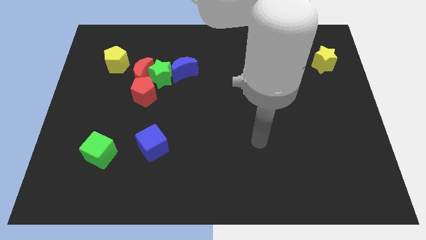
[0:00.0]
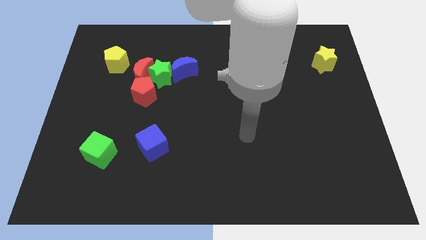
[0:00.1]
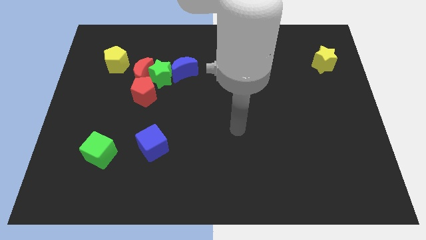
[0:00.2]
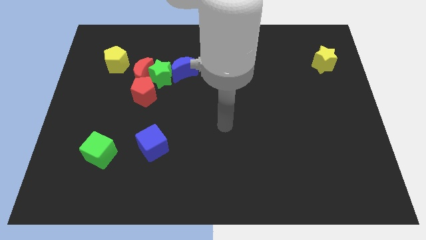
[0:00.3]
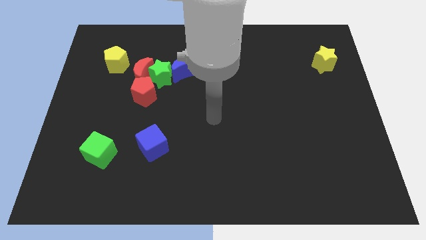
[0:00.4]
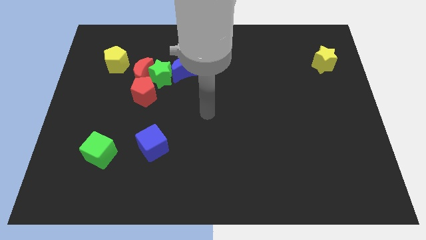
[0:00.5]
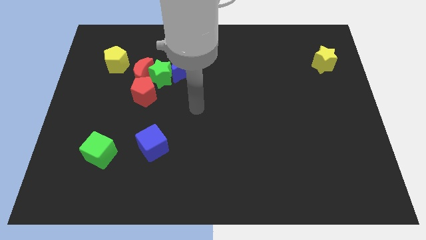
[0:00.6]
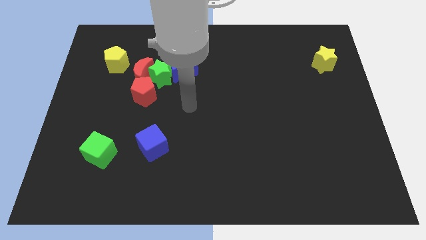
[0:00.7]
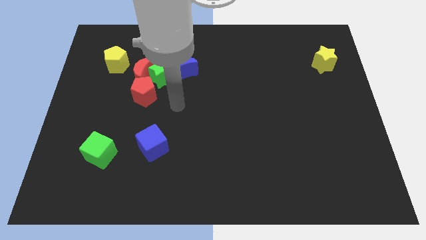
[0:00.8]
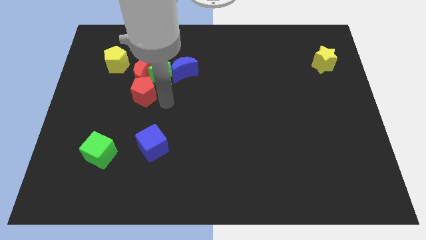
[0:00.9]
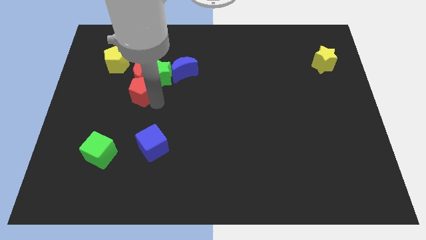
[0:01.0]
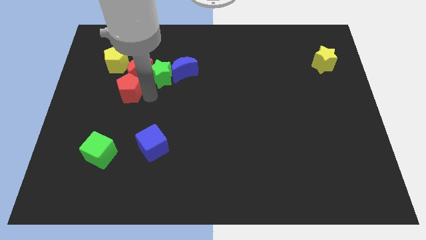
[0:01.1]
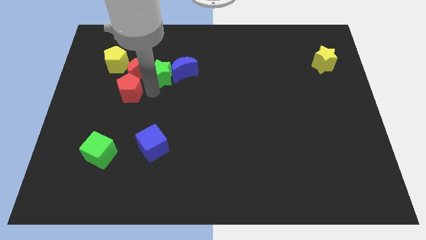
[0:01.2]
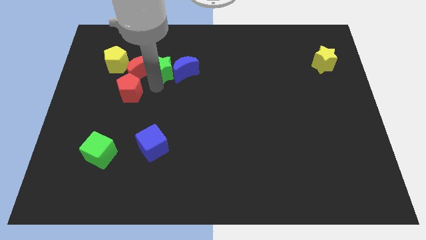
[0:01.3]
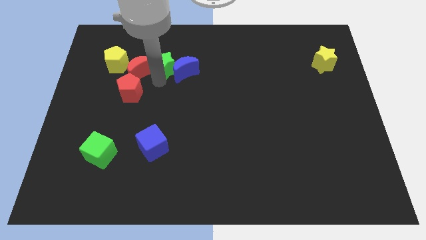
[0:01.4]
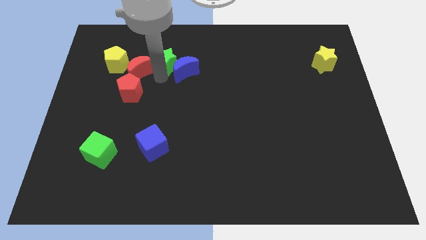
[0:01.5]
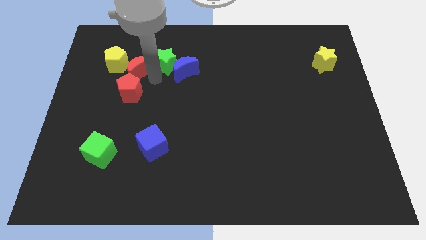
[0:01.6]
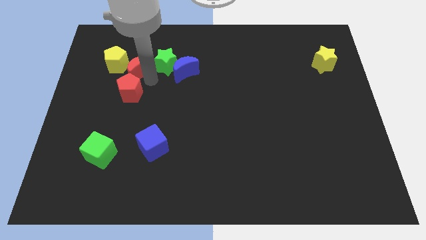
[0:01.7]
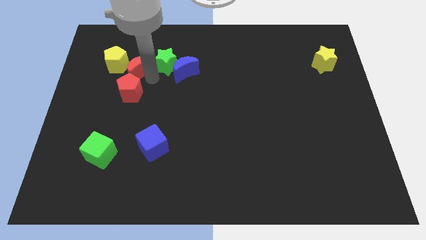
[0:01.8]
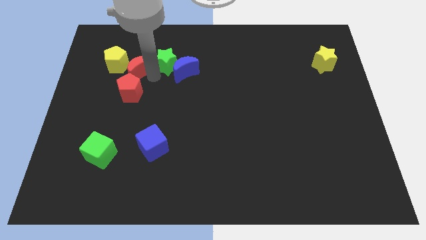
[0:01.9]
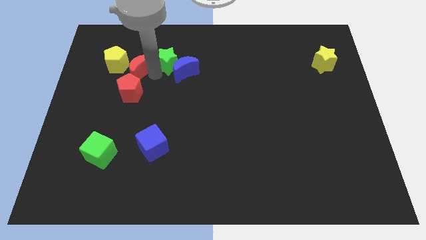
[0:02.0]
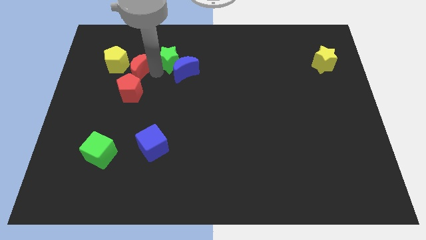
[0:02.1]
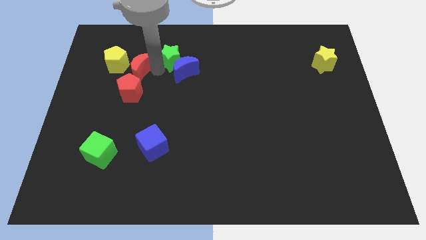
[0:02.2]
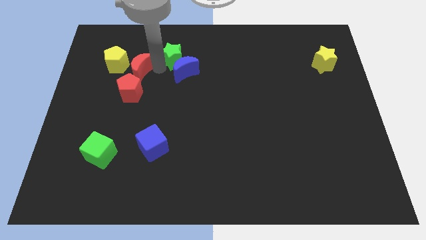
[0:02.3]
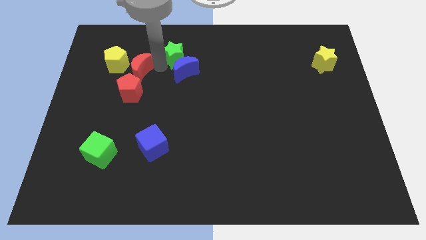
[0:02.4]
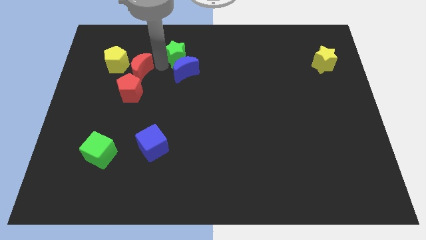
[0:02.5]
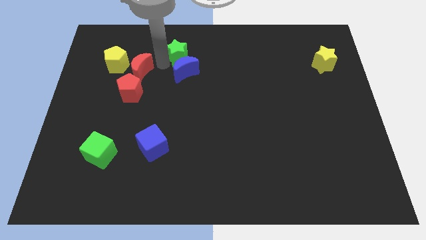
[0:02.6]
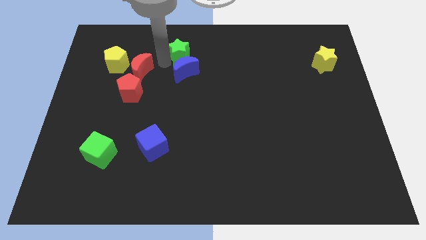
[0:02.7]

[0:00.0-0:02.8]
move the green star away from the group

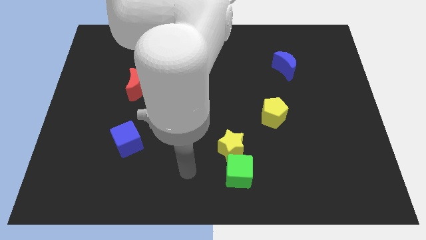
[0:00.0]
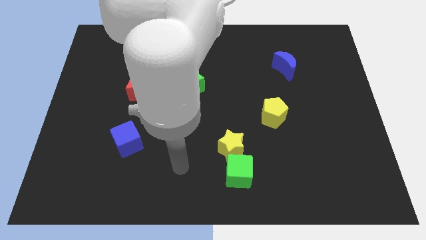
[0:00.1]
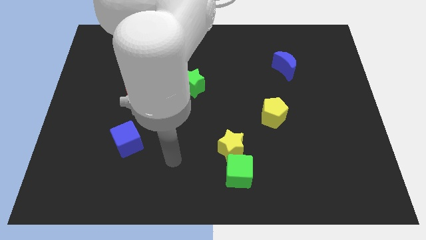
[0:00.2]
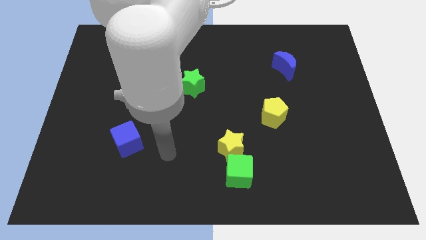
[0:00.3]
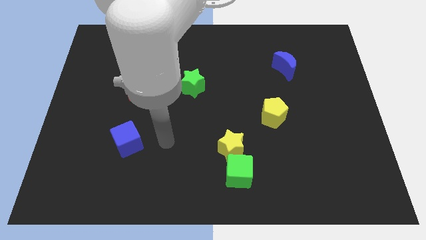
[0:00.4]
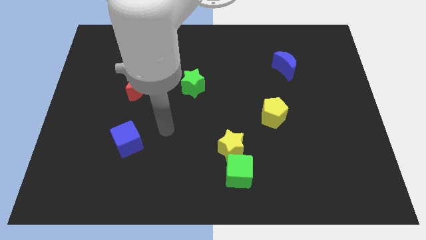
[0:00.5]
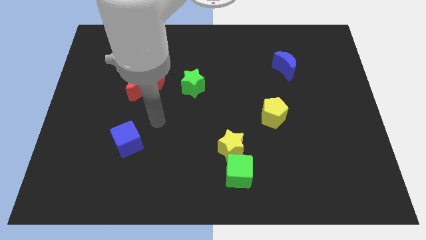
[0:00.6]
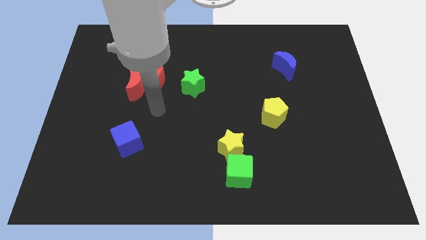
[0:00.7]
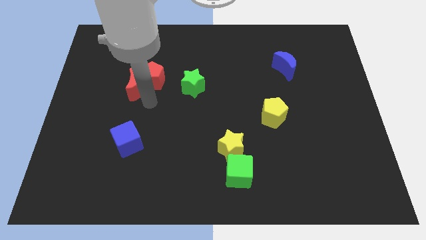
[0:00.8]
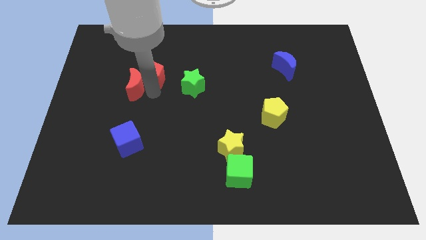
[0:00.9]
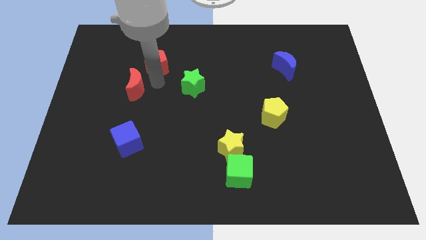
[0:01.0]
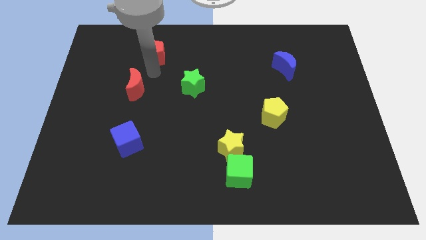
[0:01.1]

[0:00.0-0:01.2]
separate the red moon from the red pentagon

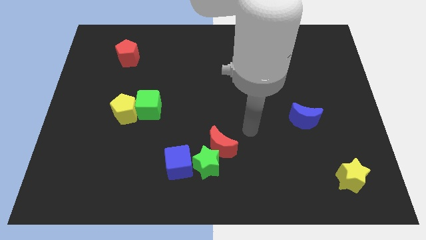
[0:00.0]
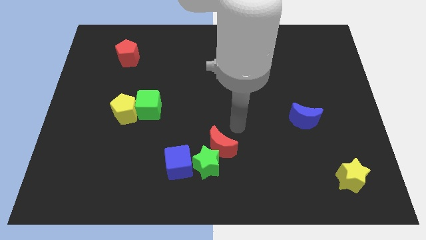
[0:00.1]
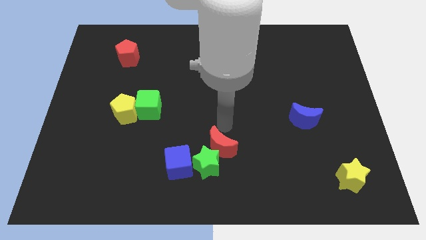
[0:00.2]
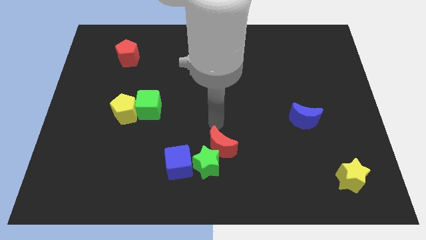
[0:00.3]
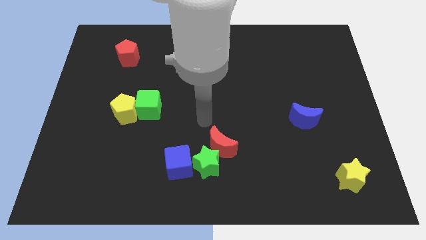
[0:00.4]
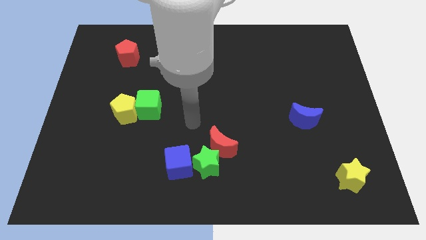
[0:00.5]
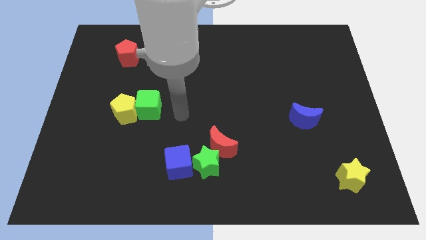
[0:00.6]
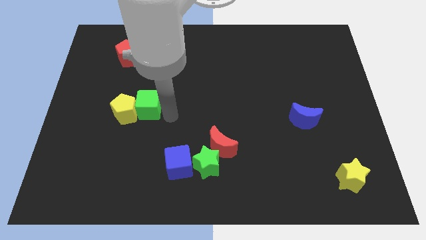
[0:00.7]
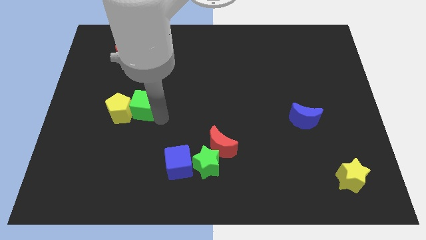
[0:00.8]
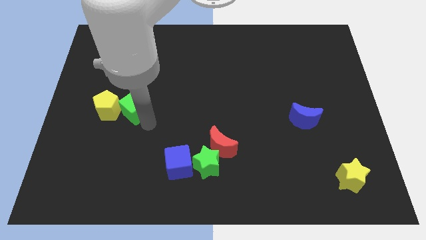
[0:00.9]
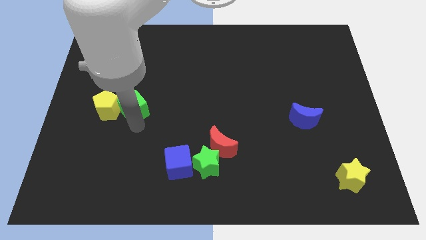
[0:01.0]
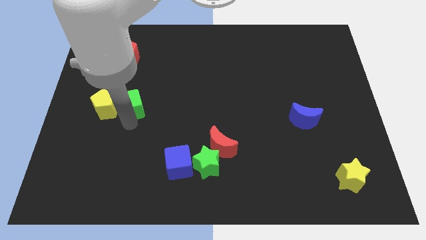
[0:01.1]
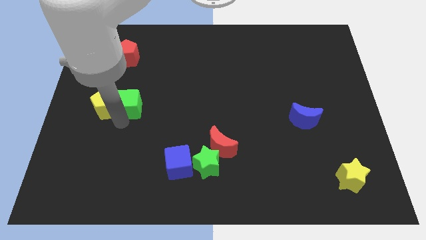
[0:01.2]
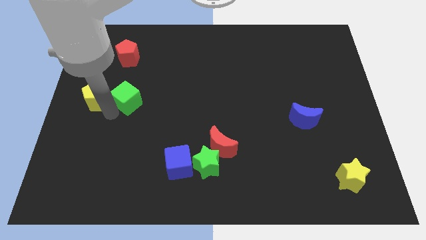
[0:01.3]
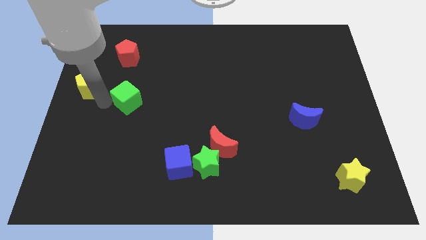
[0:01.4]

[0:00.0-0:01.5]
pull the green cube apart from the yellow pentagon

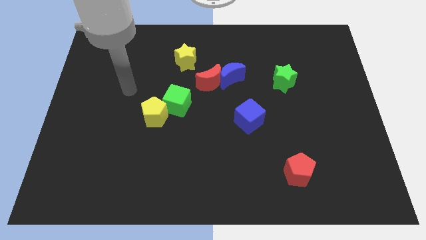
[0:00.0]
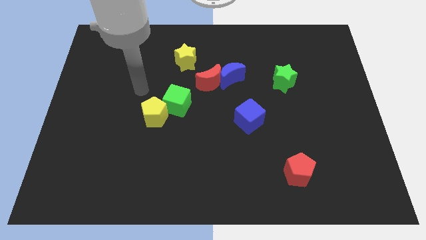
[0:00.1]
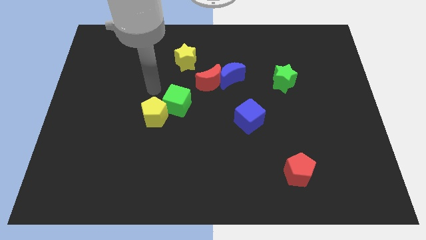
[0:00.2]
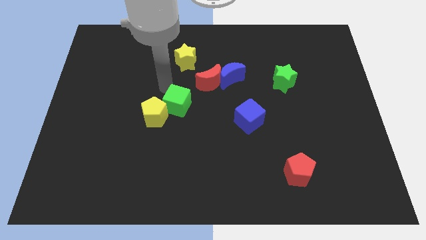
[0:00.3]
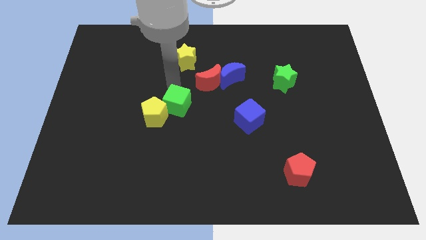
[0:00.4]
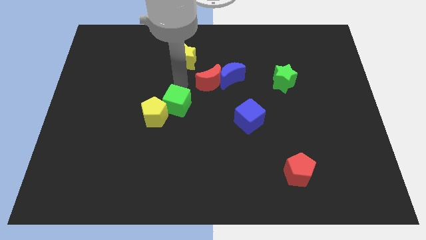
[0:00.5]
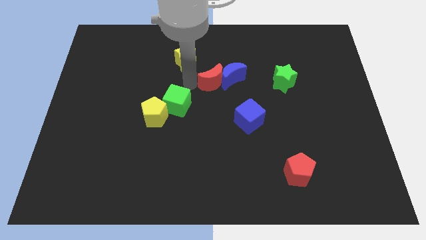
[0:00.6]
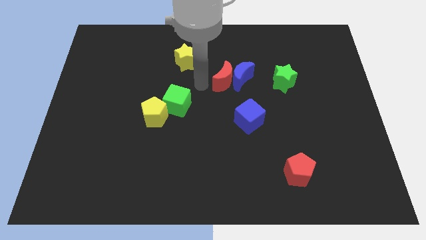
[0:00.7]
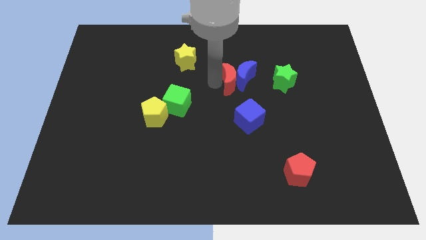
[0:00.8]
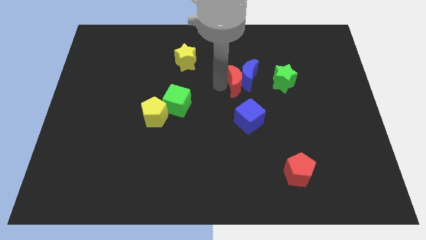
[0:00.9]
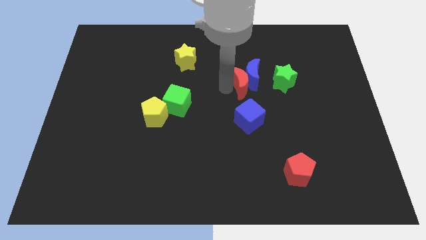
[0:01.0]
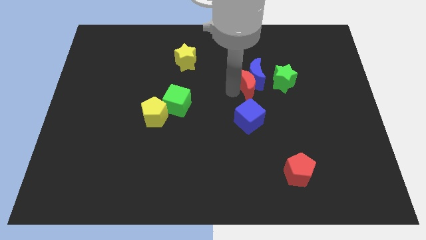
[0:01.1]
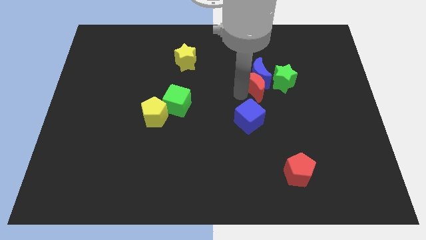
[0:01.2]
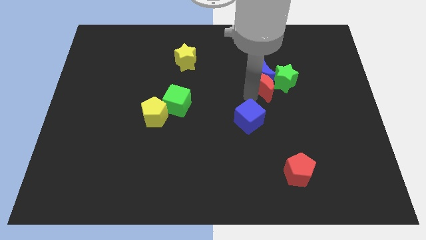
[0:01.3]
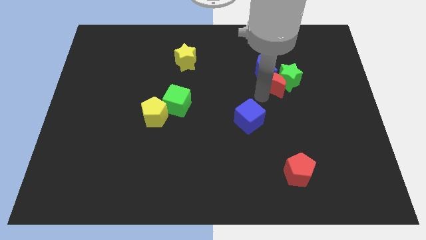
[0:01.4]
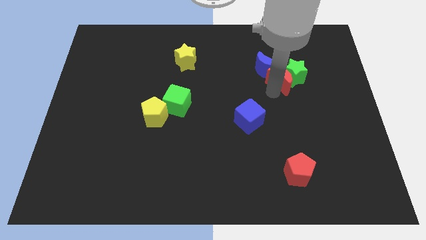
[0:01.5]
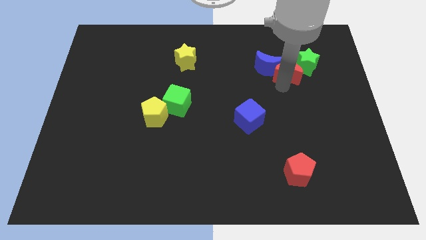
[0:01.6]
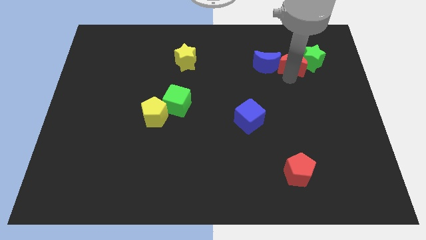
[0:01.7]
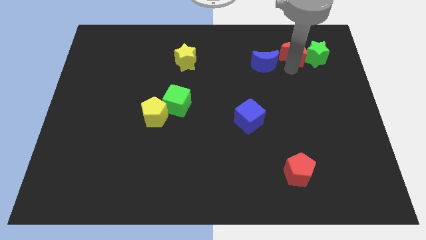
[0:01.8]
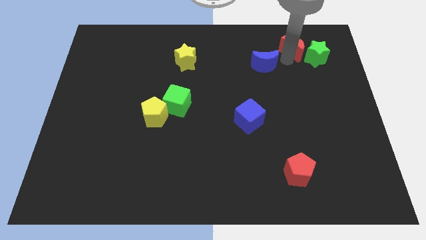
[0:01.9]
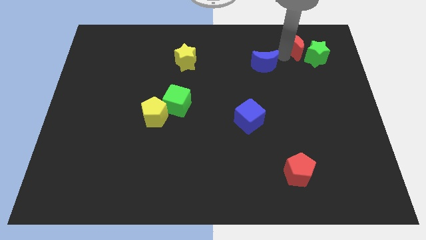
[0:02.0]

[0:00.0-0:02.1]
separate the blue moon from the red moon

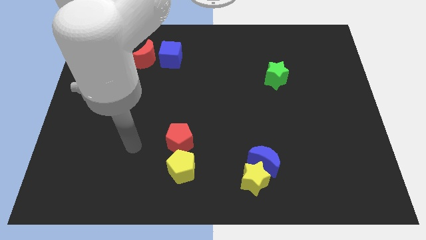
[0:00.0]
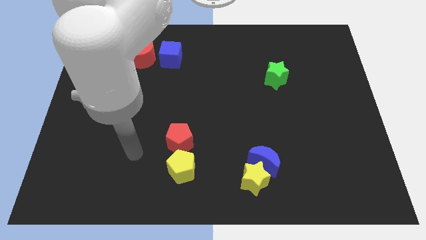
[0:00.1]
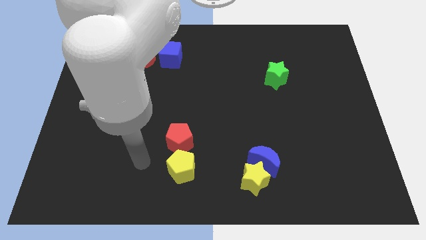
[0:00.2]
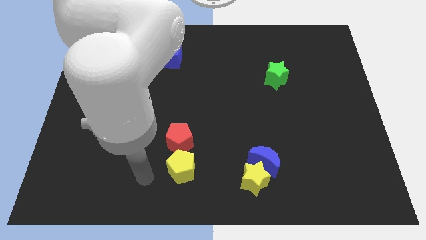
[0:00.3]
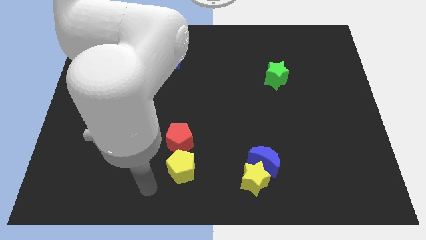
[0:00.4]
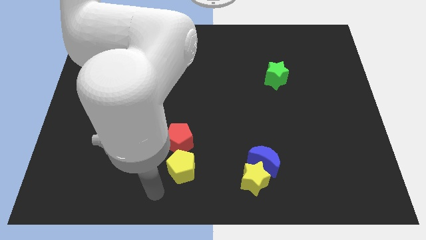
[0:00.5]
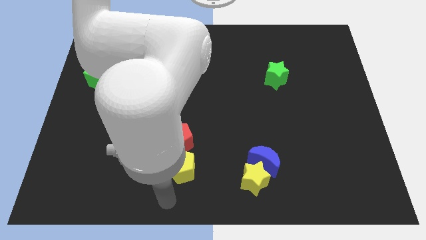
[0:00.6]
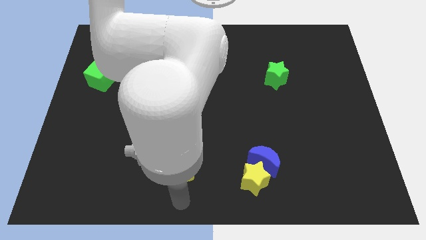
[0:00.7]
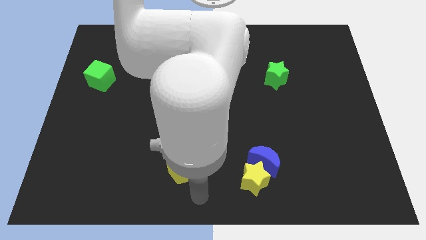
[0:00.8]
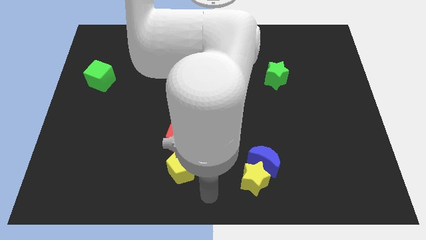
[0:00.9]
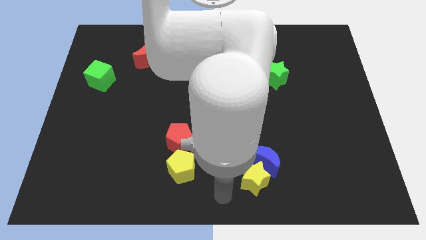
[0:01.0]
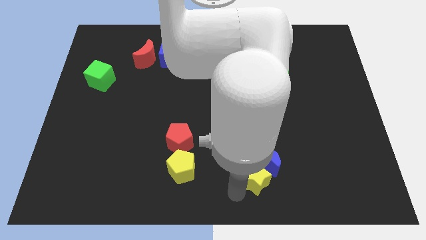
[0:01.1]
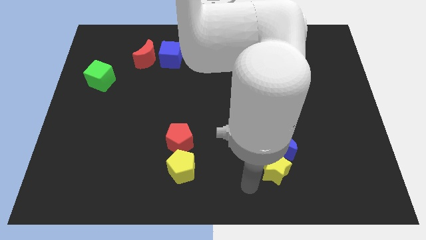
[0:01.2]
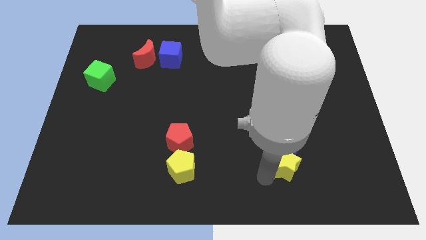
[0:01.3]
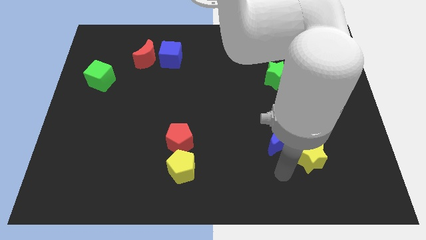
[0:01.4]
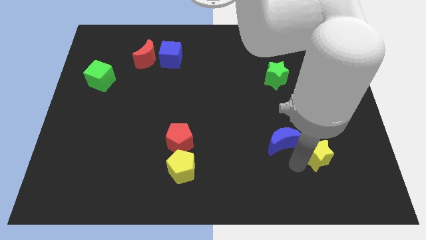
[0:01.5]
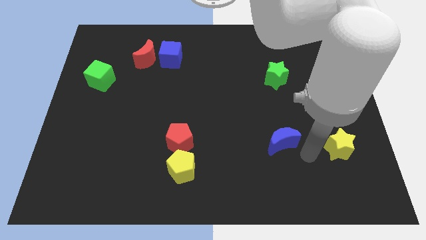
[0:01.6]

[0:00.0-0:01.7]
separate the blue moon from the yellow star

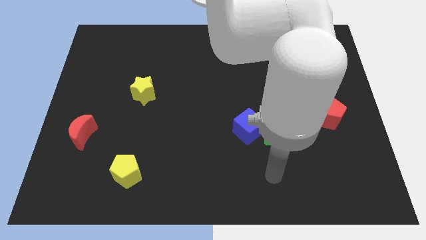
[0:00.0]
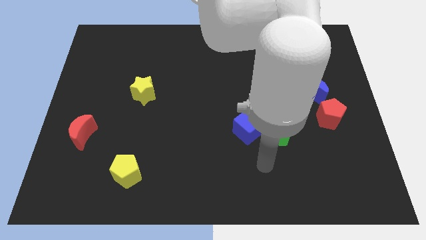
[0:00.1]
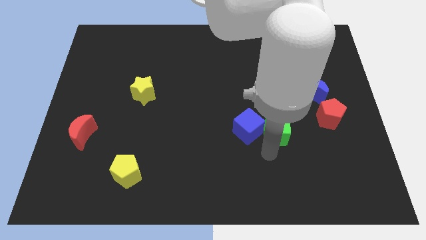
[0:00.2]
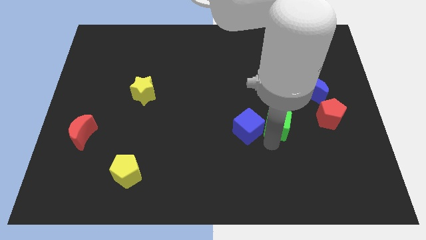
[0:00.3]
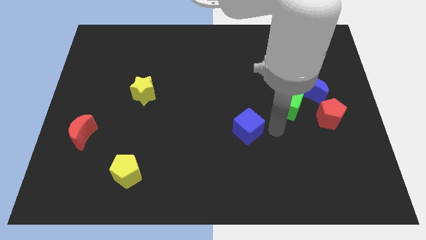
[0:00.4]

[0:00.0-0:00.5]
move the blue cube away from the green cube
